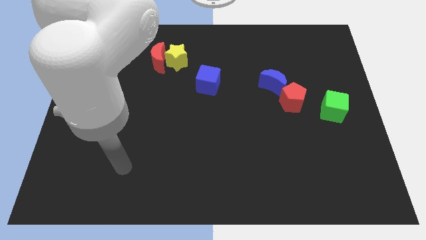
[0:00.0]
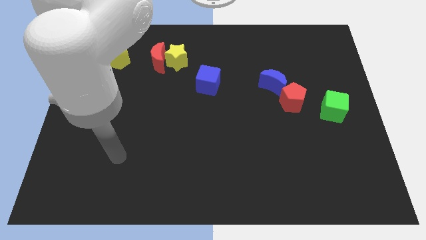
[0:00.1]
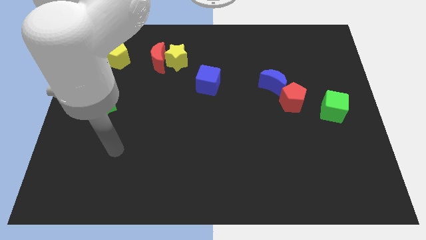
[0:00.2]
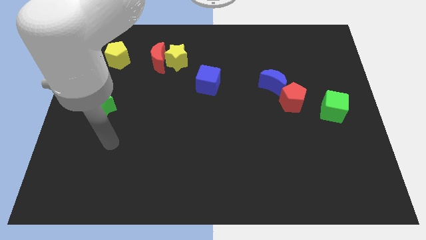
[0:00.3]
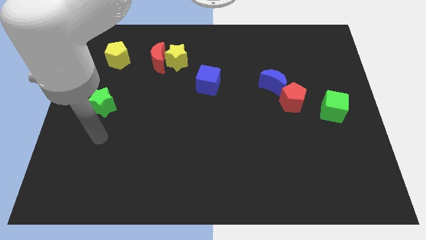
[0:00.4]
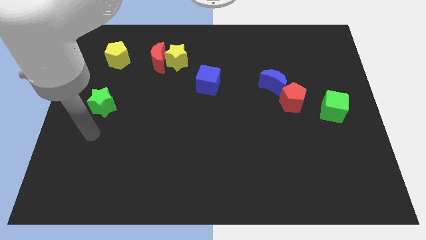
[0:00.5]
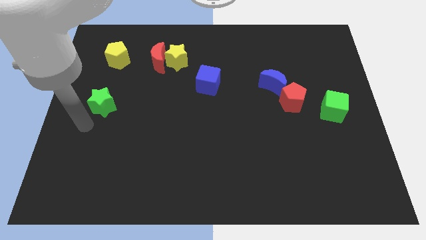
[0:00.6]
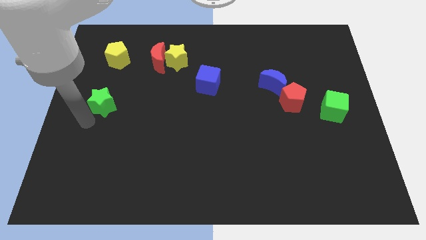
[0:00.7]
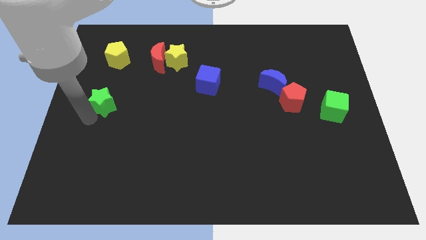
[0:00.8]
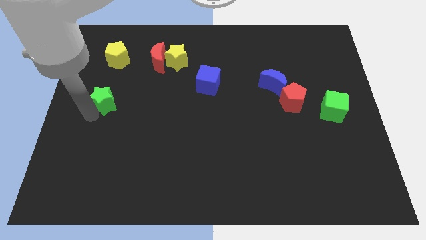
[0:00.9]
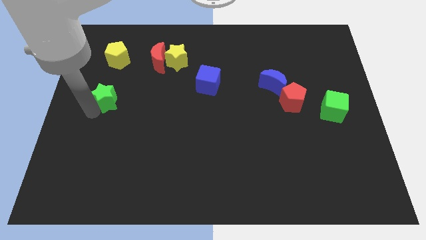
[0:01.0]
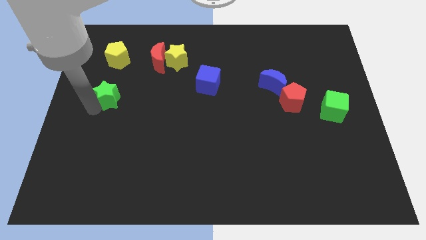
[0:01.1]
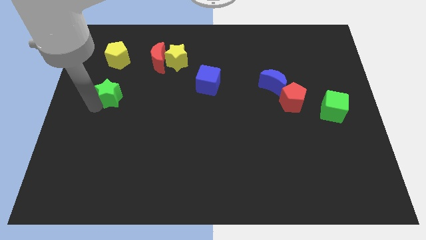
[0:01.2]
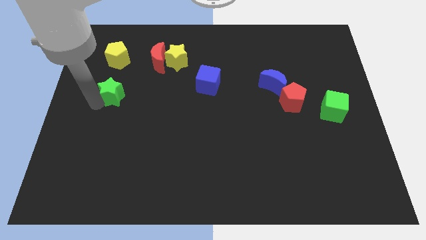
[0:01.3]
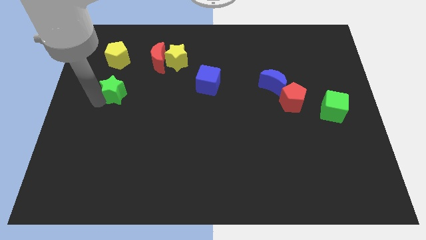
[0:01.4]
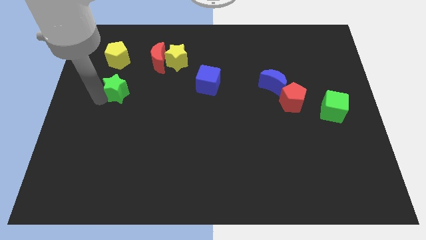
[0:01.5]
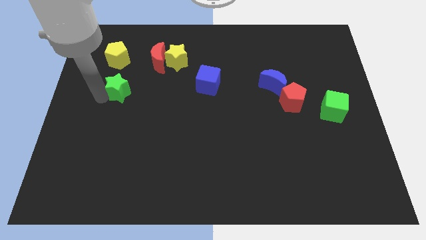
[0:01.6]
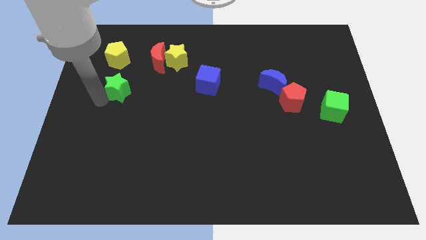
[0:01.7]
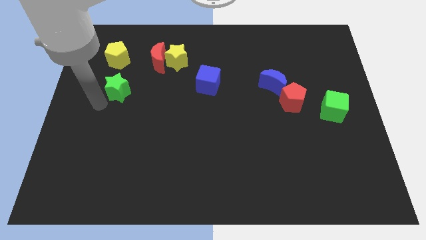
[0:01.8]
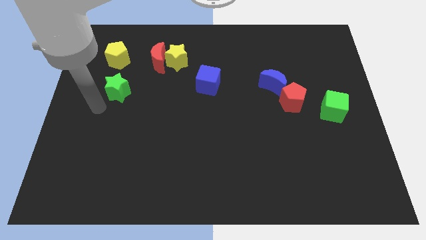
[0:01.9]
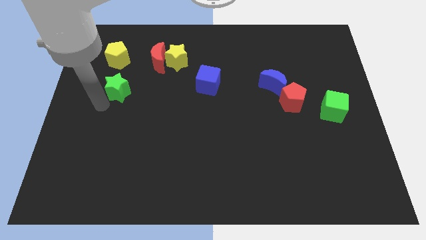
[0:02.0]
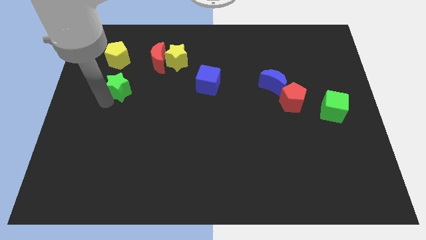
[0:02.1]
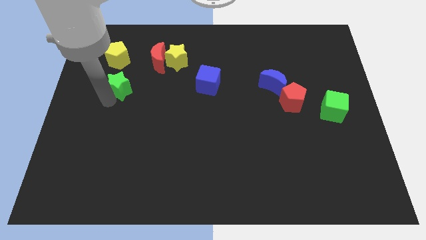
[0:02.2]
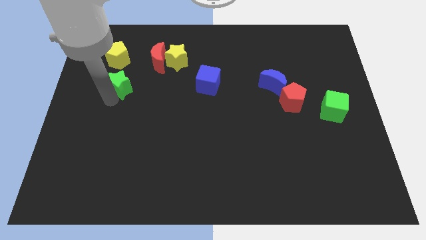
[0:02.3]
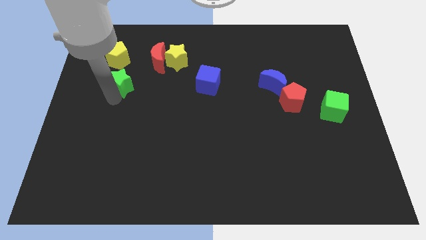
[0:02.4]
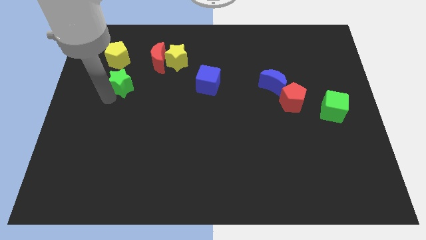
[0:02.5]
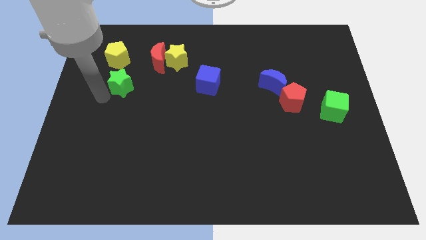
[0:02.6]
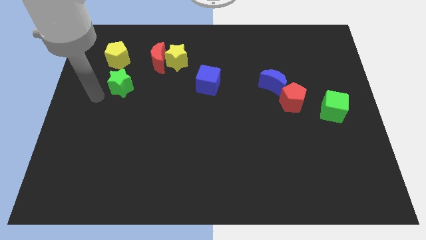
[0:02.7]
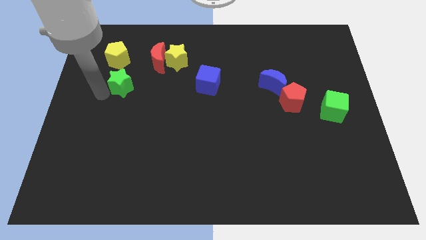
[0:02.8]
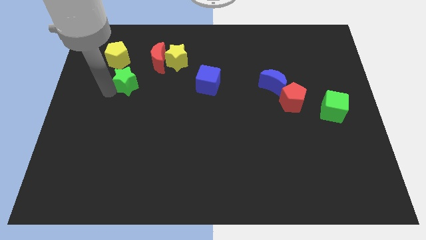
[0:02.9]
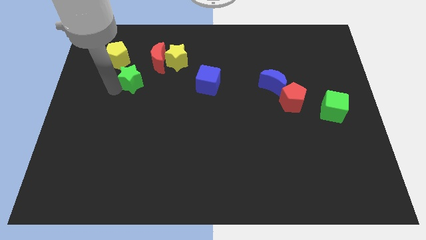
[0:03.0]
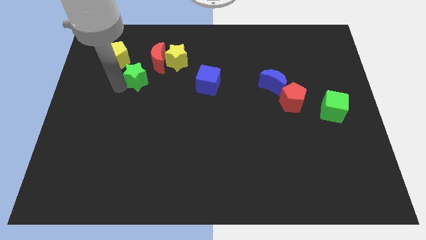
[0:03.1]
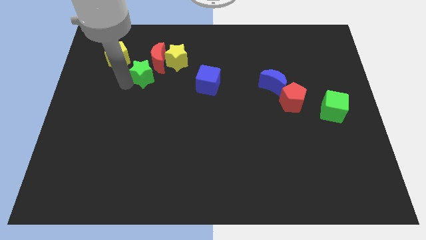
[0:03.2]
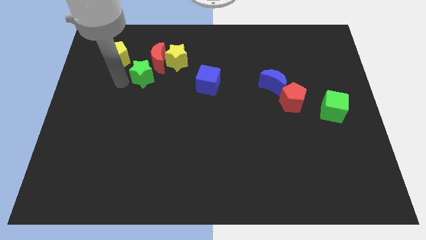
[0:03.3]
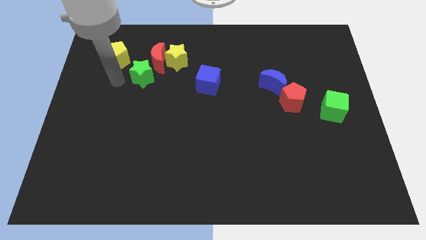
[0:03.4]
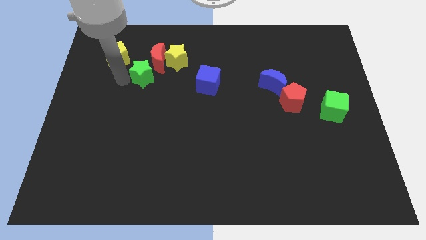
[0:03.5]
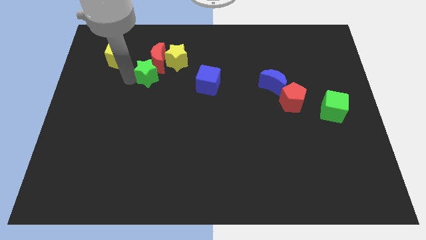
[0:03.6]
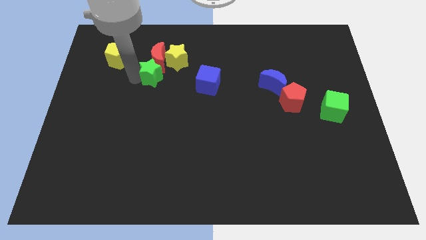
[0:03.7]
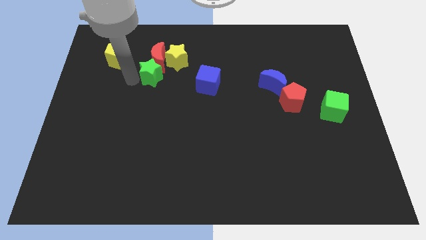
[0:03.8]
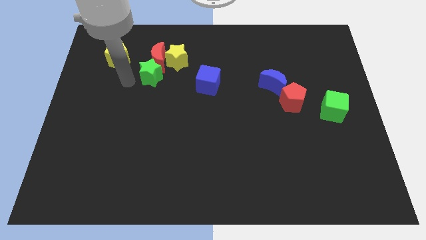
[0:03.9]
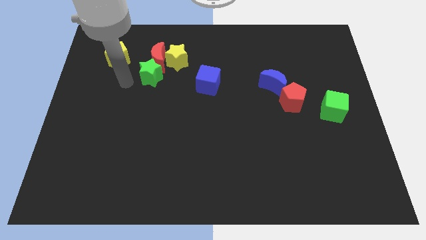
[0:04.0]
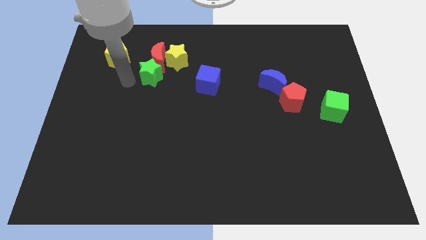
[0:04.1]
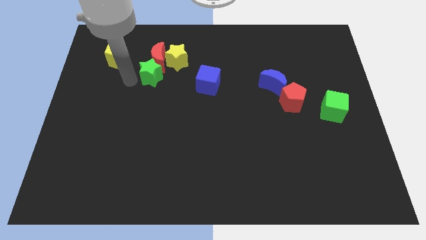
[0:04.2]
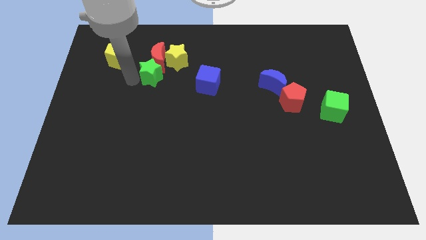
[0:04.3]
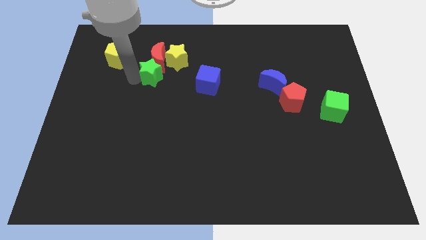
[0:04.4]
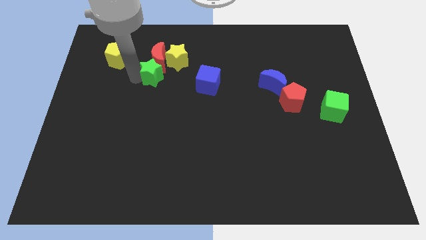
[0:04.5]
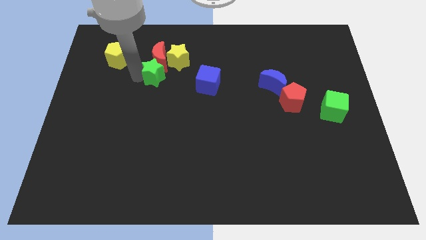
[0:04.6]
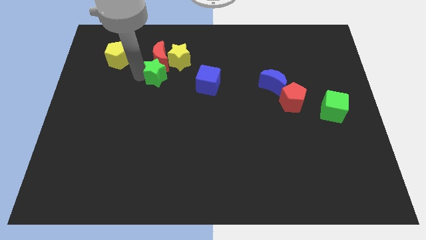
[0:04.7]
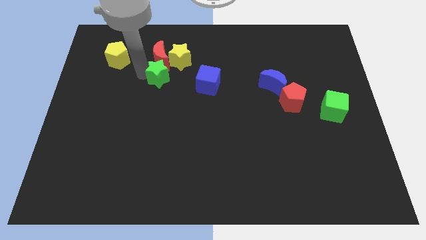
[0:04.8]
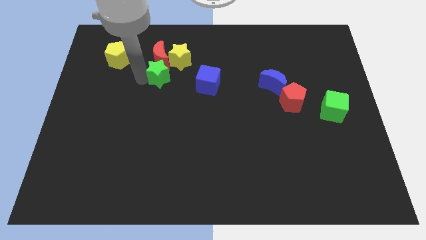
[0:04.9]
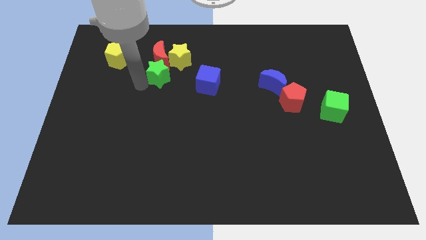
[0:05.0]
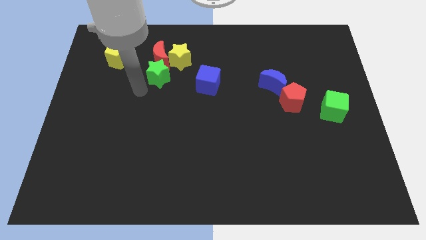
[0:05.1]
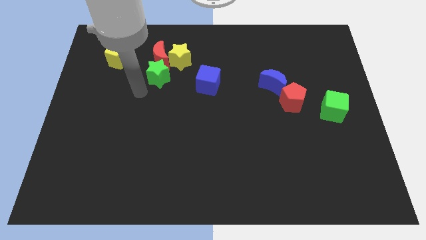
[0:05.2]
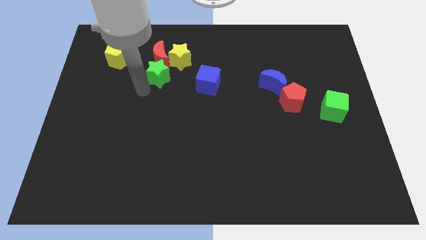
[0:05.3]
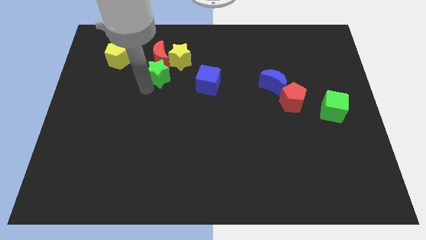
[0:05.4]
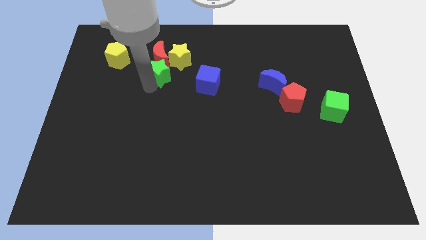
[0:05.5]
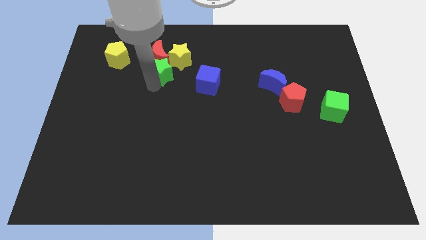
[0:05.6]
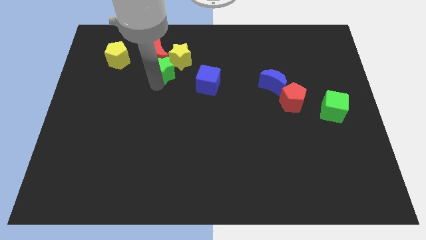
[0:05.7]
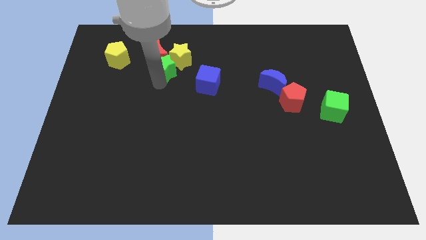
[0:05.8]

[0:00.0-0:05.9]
move the green star towards the yellow star

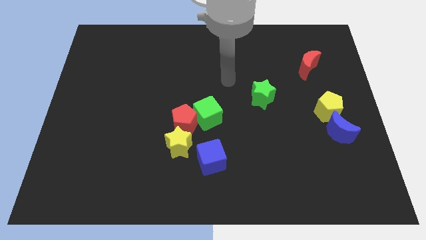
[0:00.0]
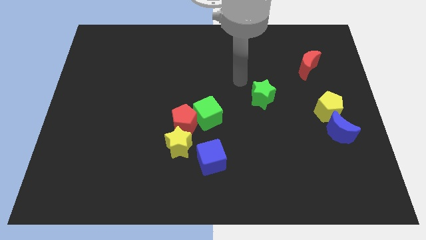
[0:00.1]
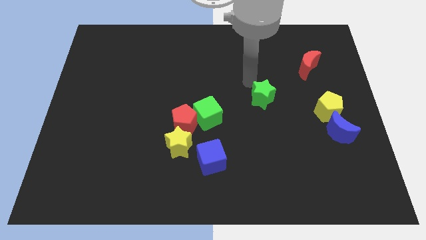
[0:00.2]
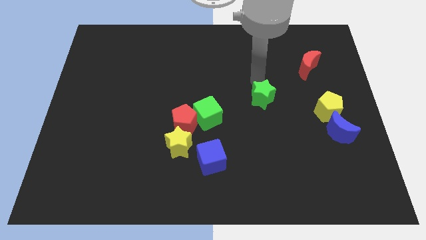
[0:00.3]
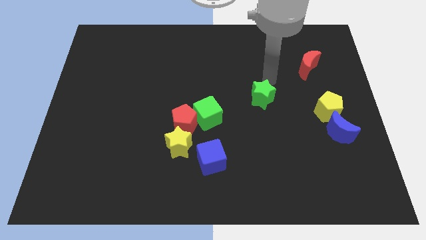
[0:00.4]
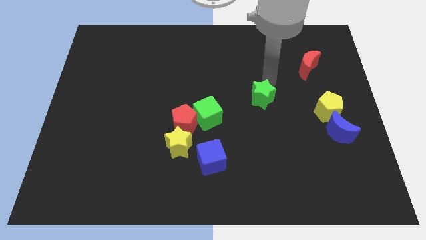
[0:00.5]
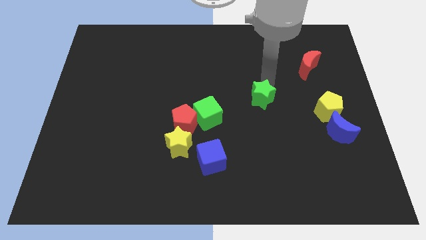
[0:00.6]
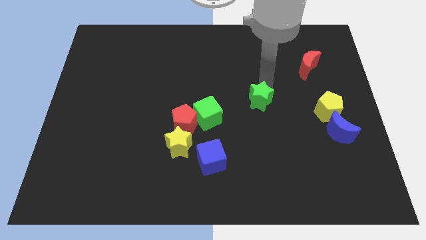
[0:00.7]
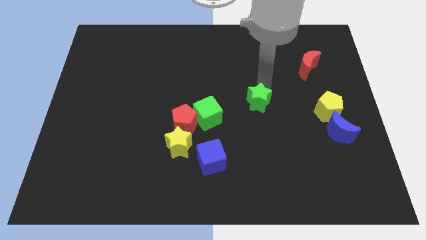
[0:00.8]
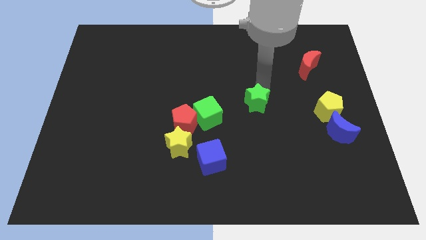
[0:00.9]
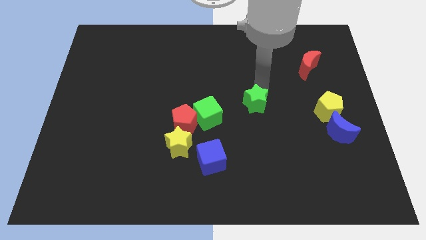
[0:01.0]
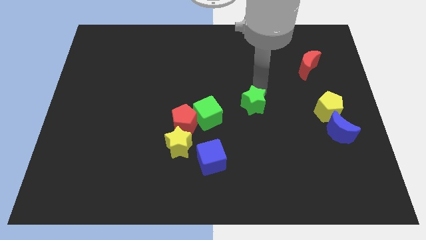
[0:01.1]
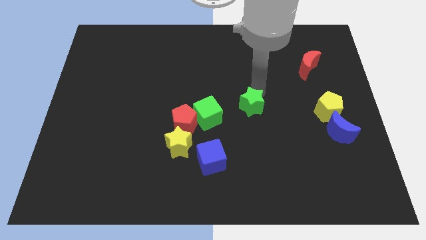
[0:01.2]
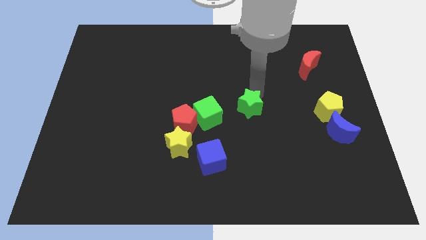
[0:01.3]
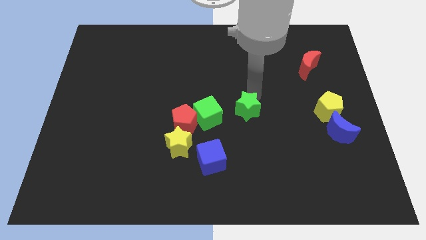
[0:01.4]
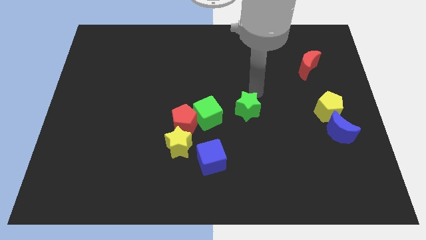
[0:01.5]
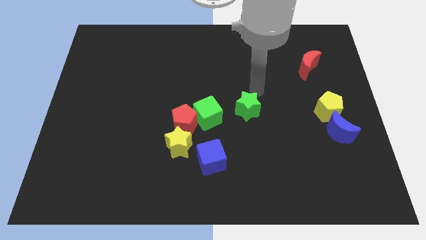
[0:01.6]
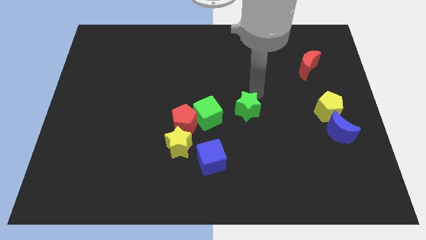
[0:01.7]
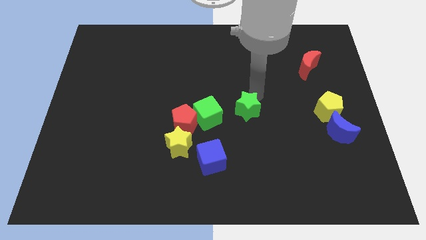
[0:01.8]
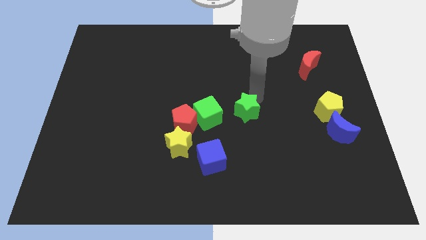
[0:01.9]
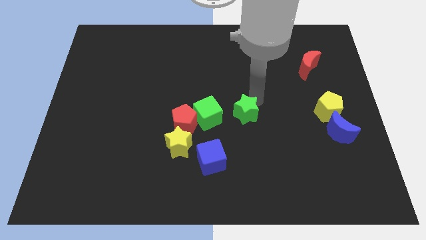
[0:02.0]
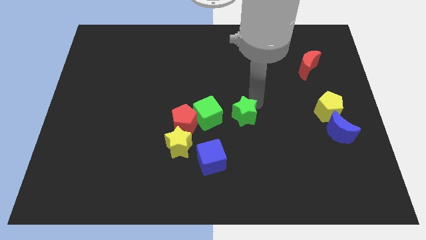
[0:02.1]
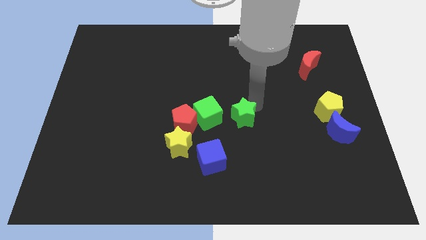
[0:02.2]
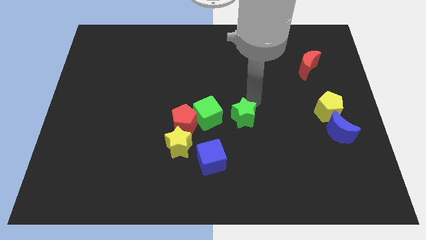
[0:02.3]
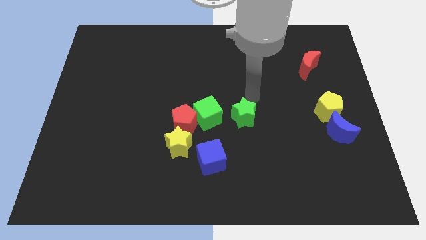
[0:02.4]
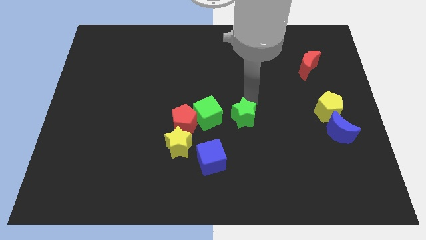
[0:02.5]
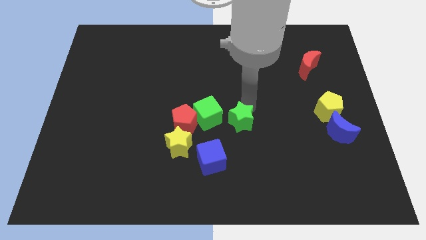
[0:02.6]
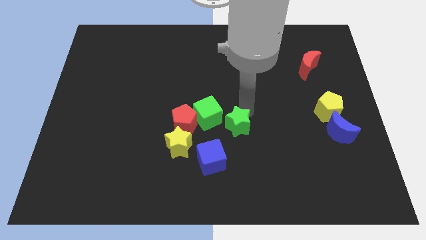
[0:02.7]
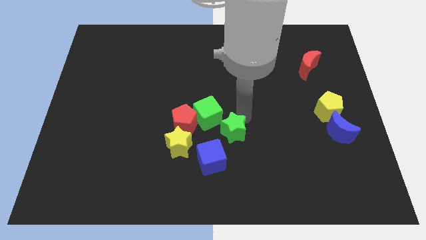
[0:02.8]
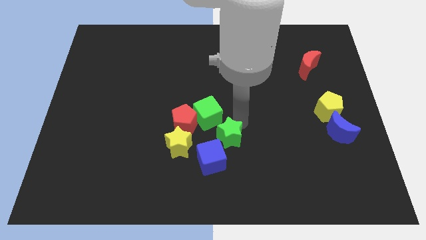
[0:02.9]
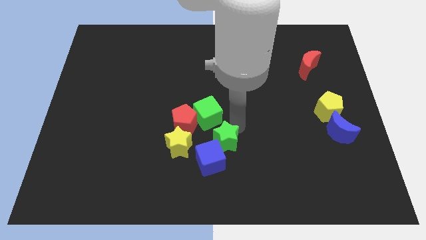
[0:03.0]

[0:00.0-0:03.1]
move the green star next to the blue cube
